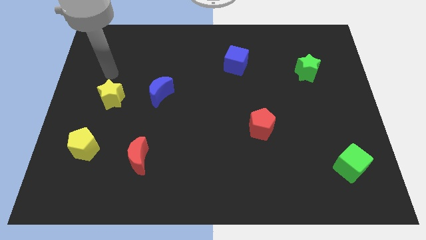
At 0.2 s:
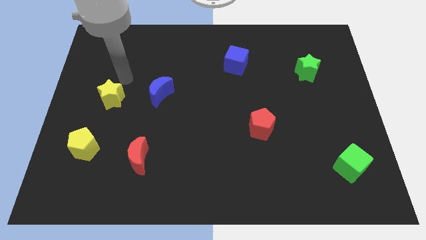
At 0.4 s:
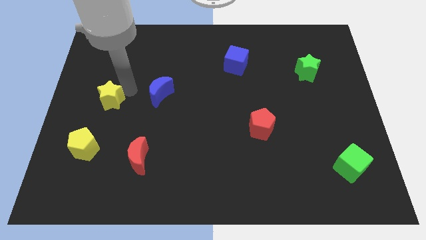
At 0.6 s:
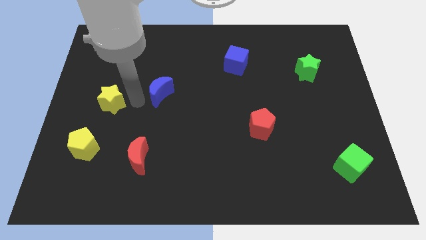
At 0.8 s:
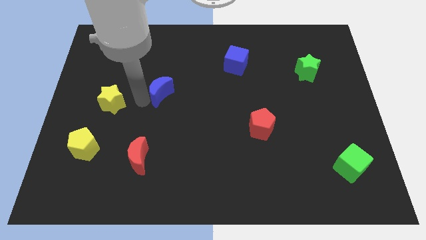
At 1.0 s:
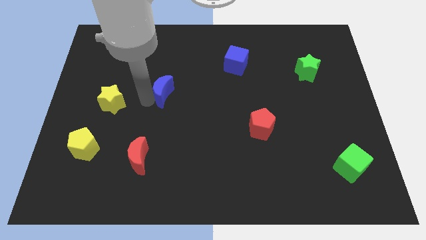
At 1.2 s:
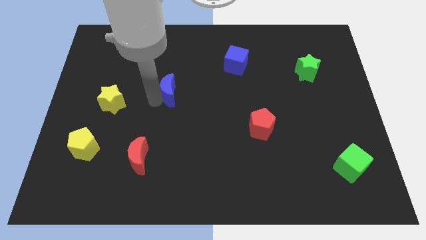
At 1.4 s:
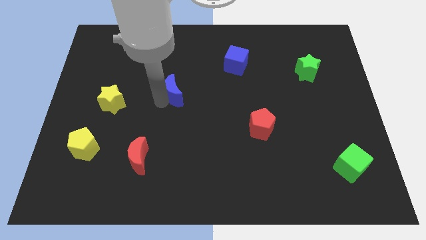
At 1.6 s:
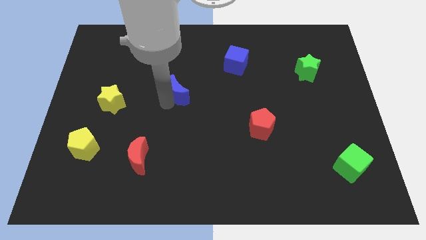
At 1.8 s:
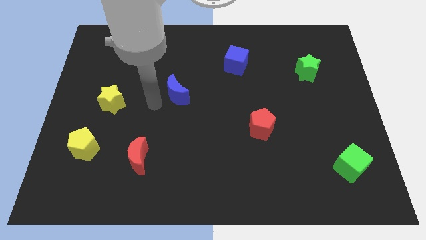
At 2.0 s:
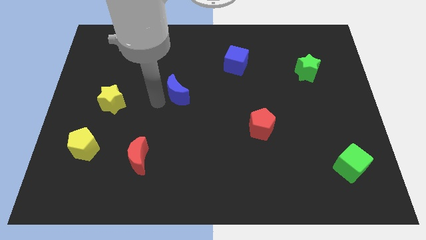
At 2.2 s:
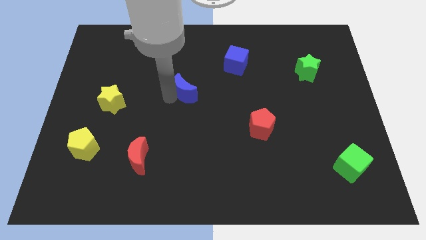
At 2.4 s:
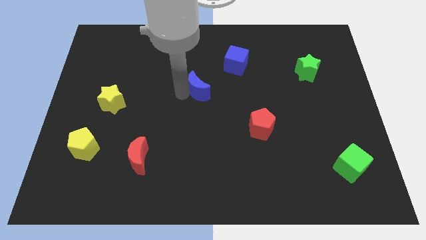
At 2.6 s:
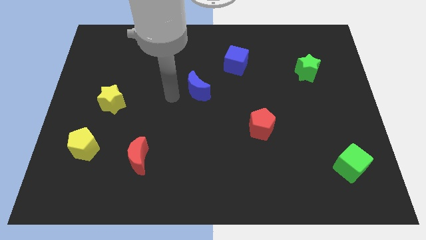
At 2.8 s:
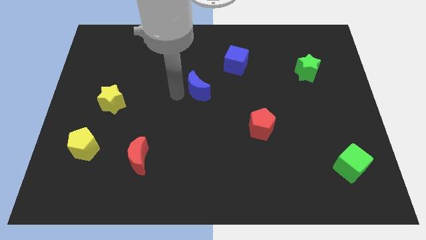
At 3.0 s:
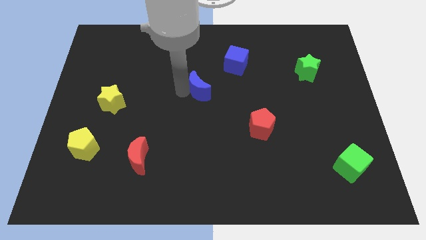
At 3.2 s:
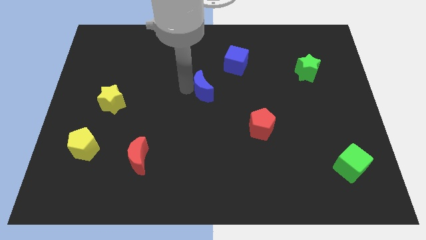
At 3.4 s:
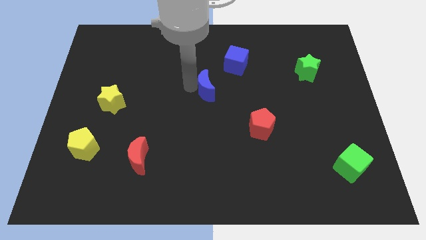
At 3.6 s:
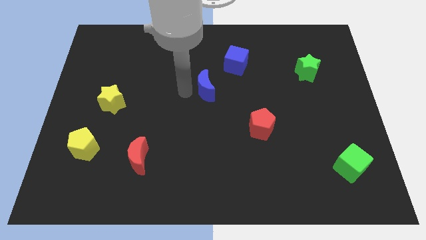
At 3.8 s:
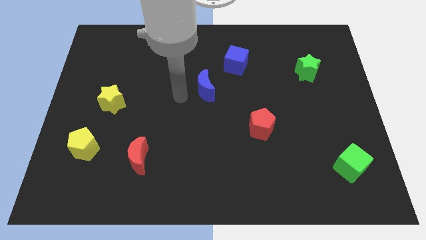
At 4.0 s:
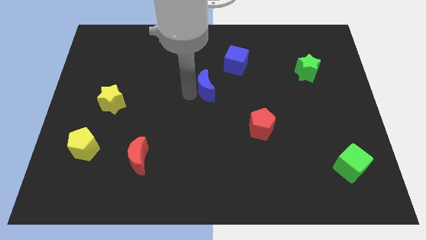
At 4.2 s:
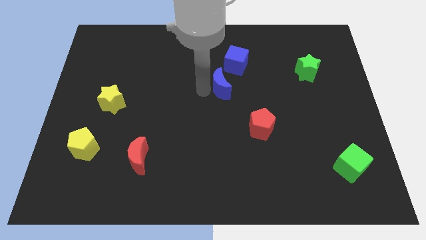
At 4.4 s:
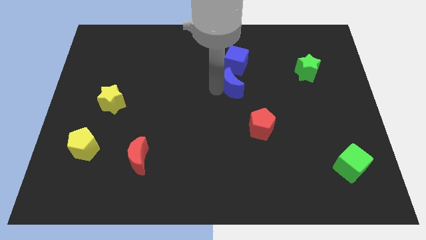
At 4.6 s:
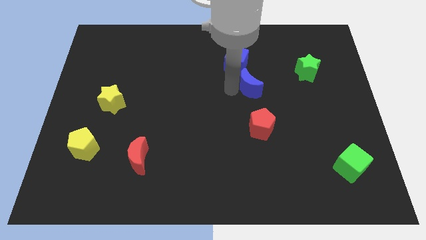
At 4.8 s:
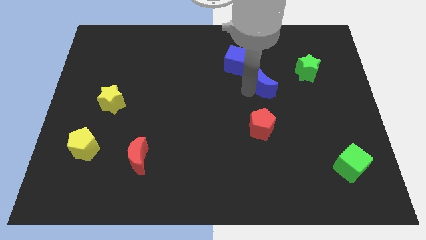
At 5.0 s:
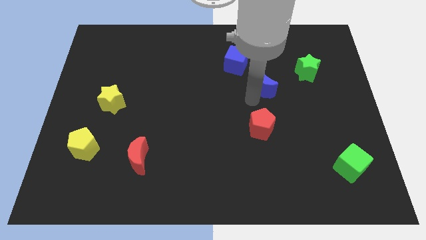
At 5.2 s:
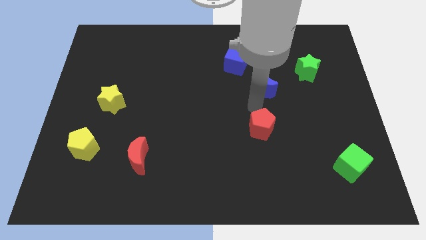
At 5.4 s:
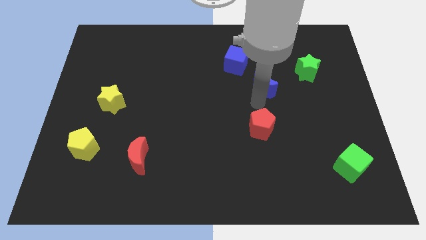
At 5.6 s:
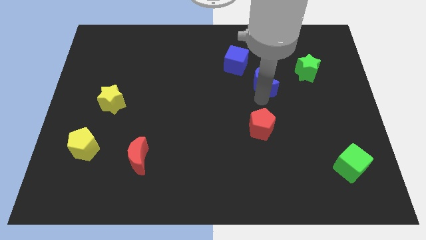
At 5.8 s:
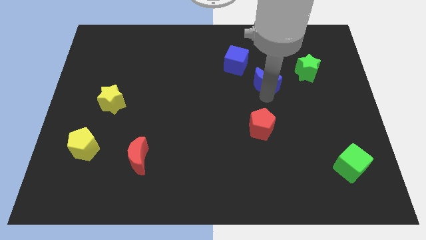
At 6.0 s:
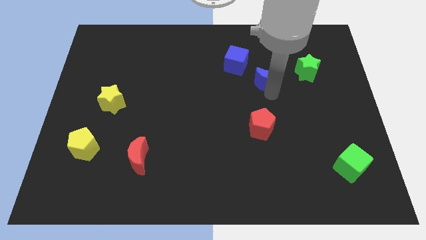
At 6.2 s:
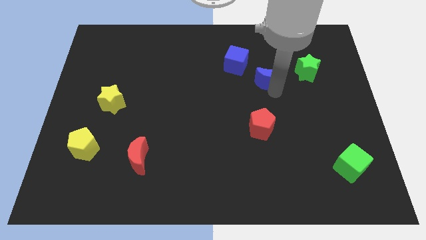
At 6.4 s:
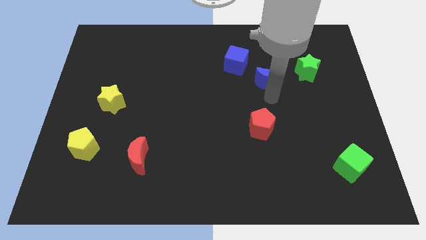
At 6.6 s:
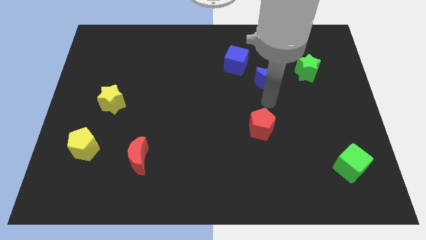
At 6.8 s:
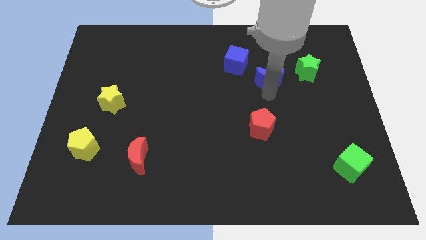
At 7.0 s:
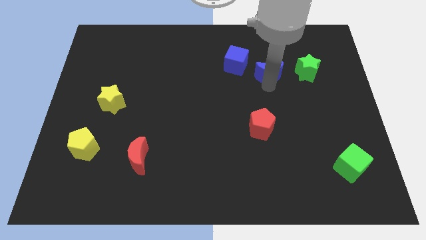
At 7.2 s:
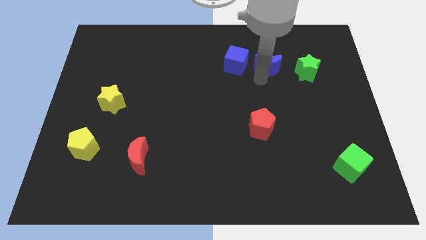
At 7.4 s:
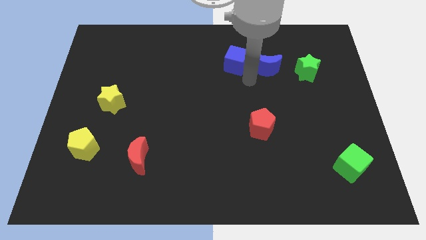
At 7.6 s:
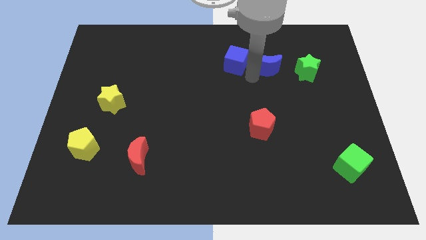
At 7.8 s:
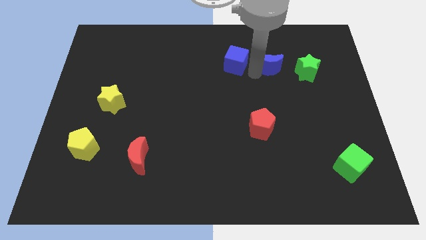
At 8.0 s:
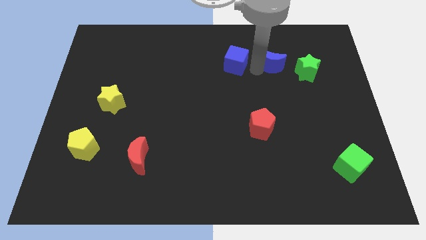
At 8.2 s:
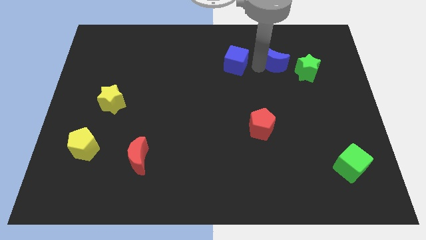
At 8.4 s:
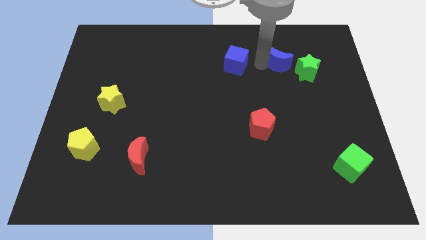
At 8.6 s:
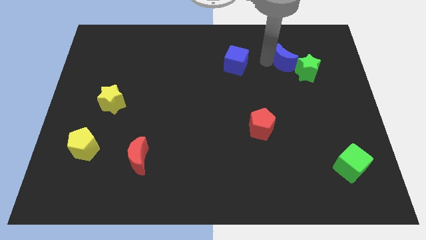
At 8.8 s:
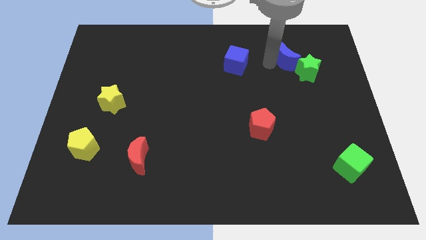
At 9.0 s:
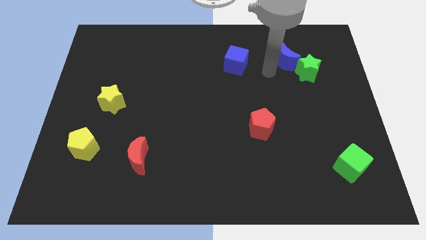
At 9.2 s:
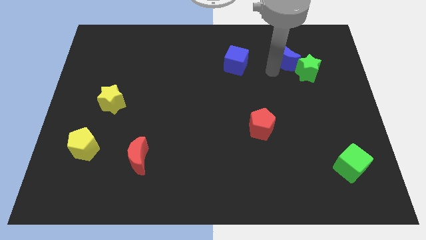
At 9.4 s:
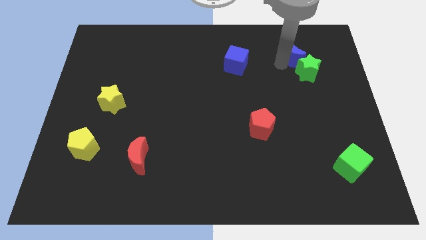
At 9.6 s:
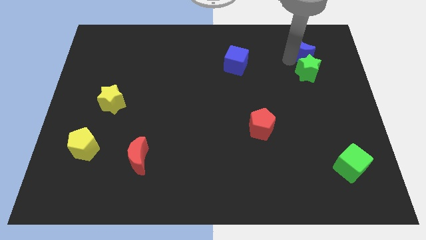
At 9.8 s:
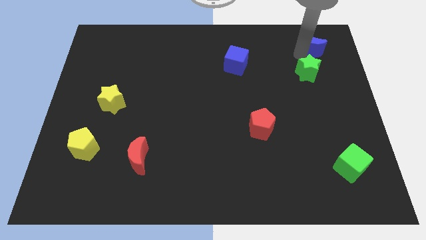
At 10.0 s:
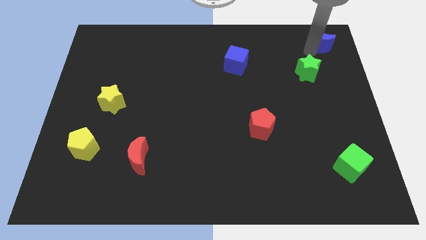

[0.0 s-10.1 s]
move the blue moon to the top right

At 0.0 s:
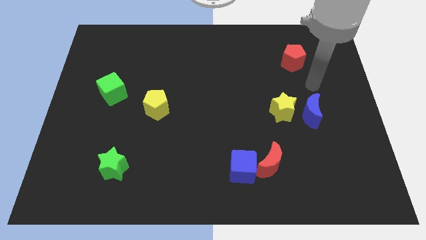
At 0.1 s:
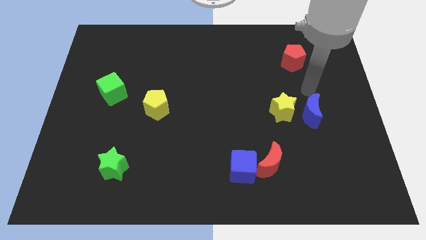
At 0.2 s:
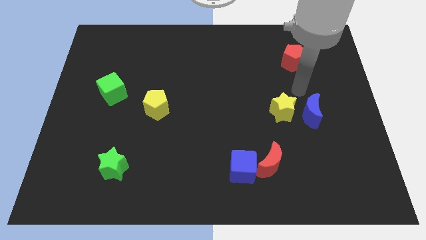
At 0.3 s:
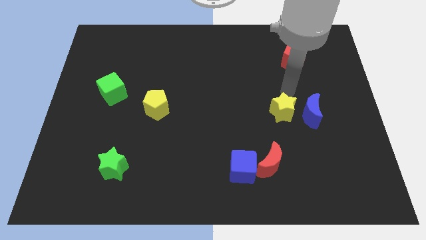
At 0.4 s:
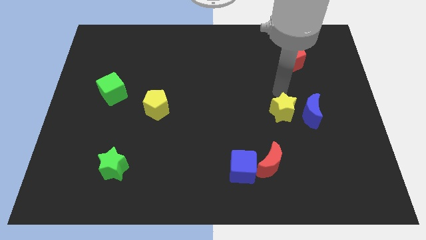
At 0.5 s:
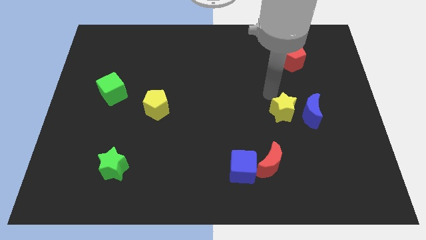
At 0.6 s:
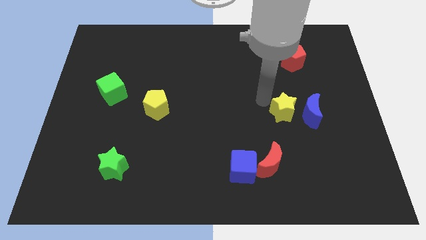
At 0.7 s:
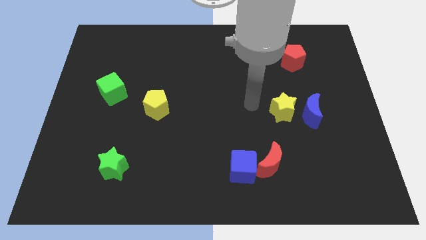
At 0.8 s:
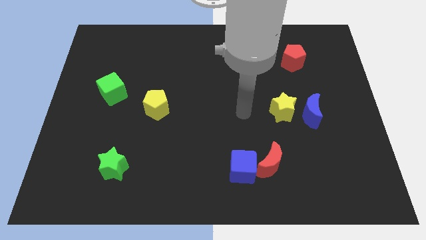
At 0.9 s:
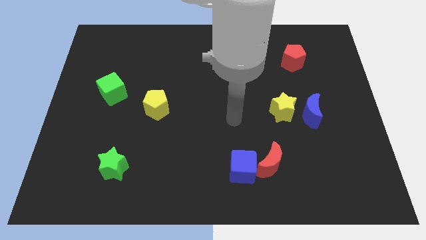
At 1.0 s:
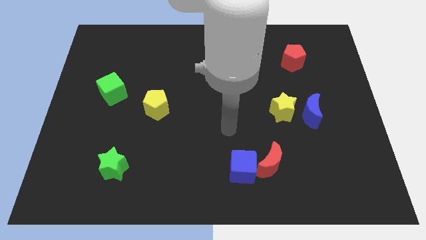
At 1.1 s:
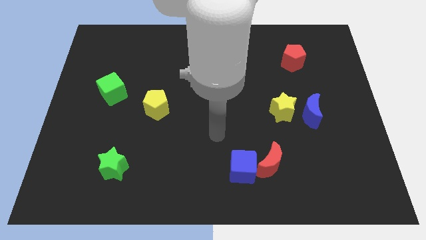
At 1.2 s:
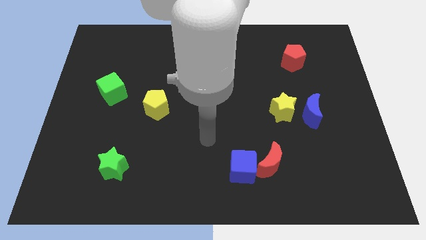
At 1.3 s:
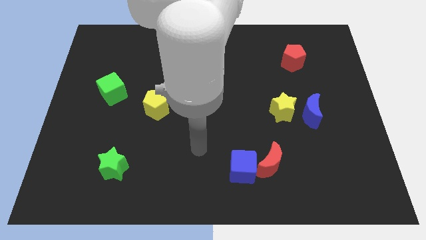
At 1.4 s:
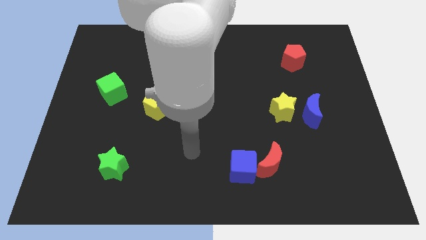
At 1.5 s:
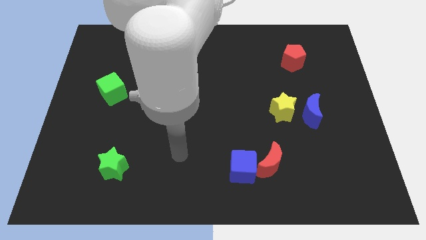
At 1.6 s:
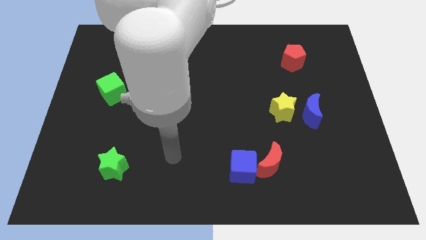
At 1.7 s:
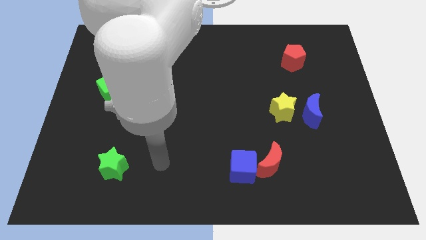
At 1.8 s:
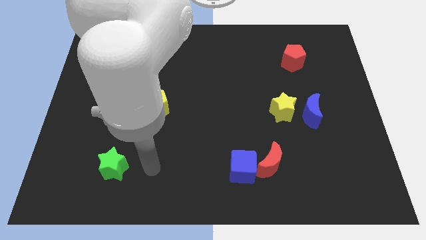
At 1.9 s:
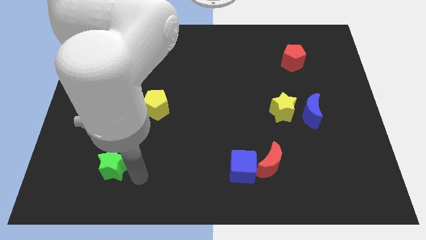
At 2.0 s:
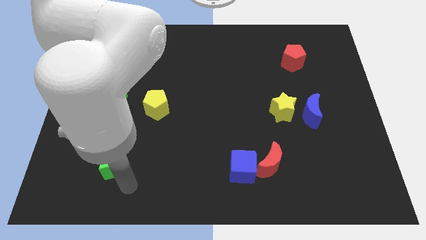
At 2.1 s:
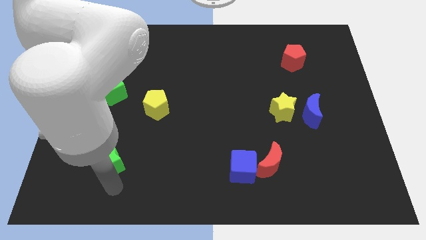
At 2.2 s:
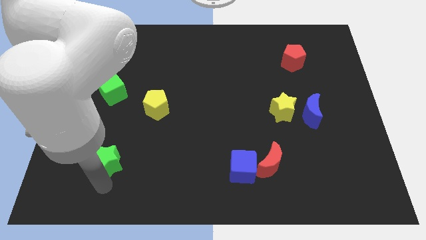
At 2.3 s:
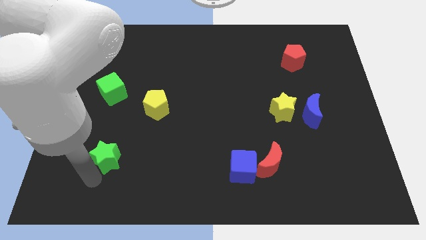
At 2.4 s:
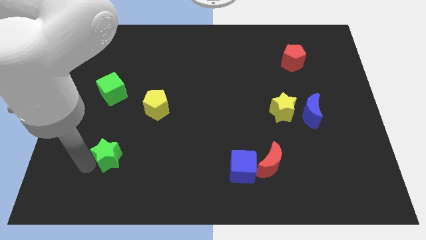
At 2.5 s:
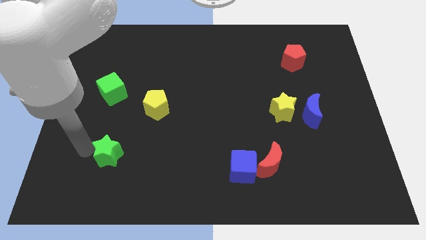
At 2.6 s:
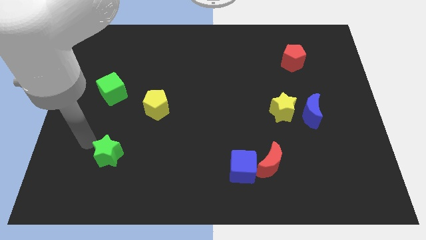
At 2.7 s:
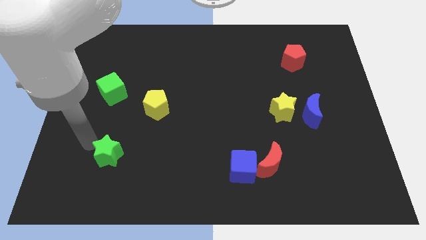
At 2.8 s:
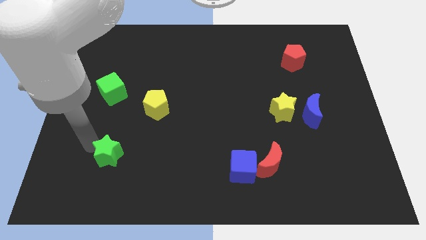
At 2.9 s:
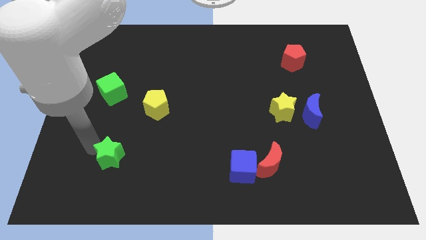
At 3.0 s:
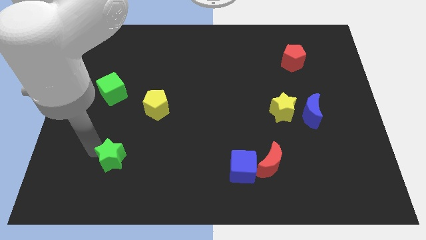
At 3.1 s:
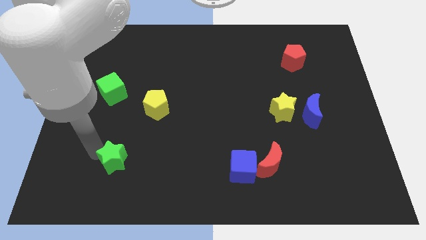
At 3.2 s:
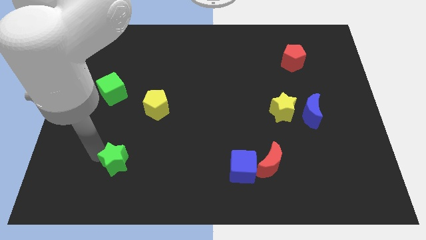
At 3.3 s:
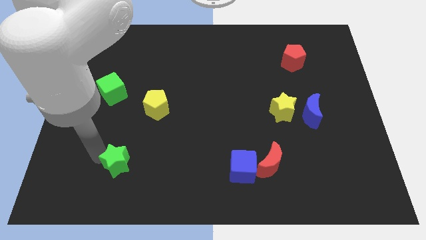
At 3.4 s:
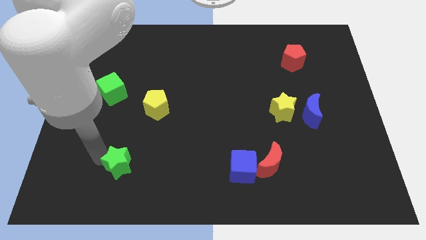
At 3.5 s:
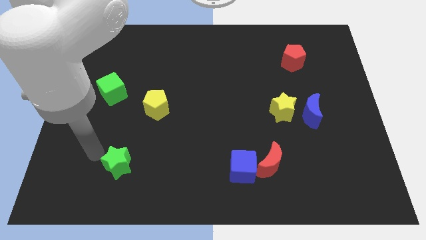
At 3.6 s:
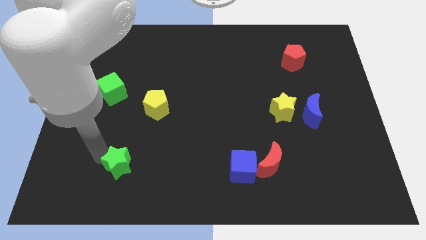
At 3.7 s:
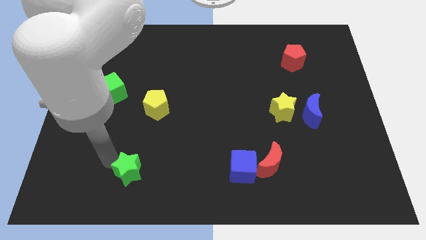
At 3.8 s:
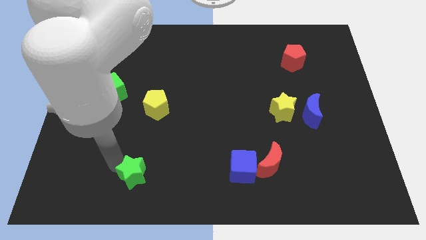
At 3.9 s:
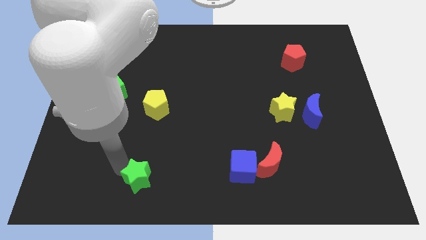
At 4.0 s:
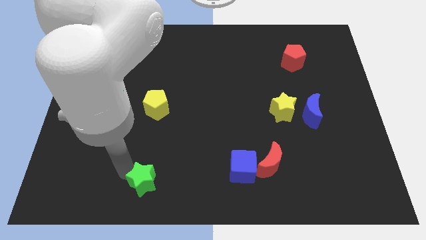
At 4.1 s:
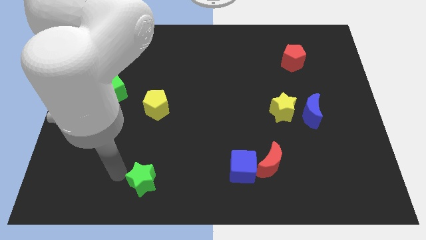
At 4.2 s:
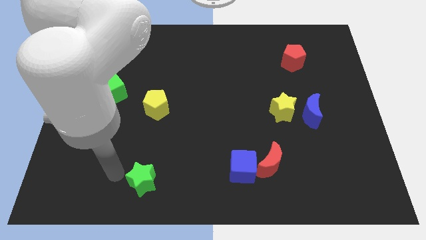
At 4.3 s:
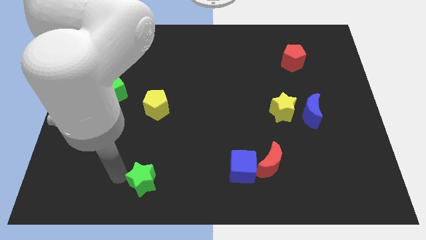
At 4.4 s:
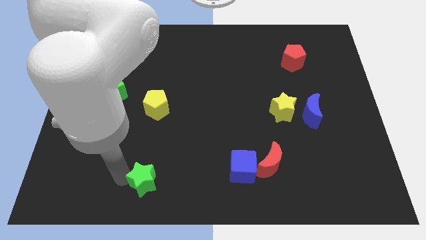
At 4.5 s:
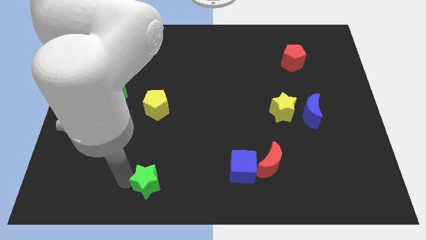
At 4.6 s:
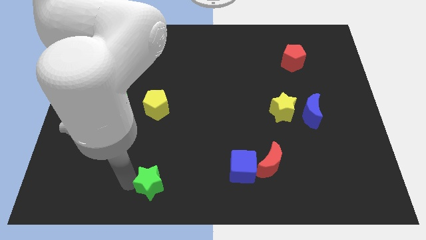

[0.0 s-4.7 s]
move the green star to the bottom
